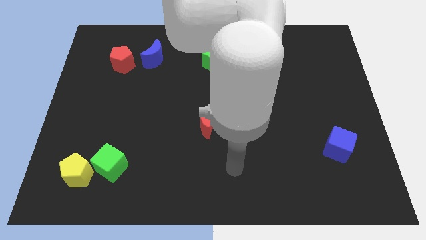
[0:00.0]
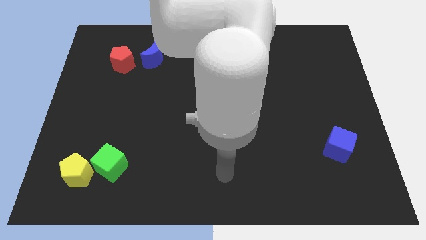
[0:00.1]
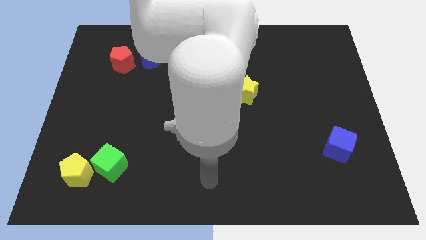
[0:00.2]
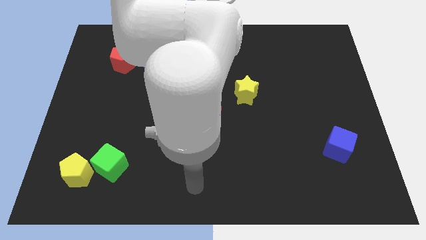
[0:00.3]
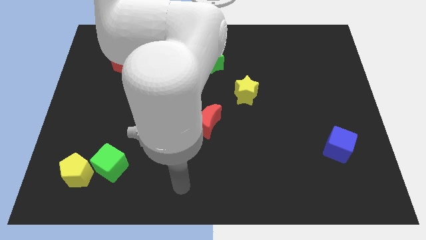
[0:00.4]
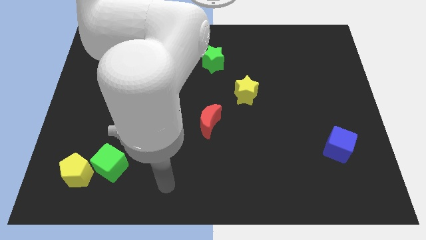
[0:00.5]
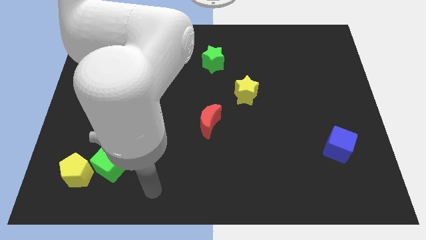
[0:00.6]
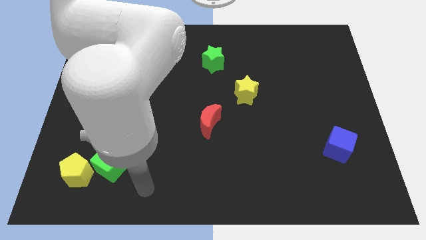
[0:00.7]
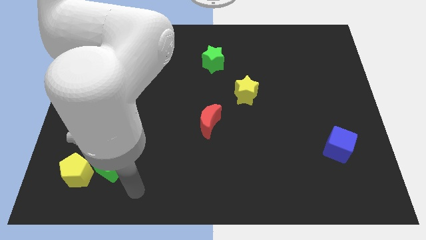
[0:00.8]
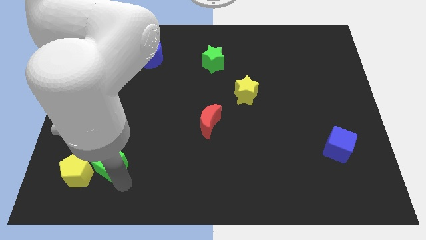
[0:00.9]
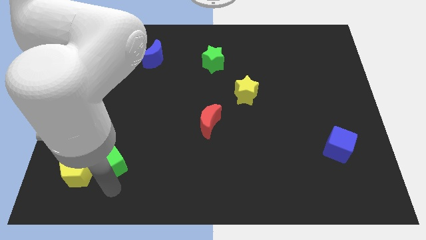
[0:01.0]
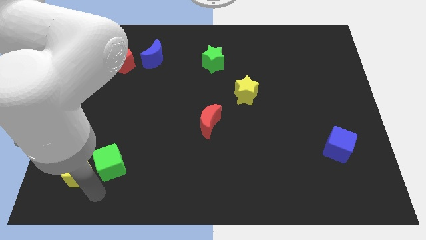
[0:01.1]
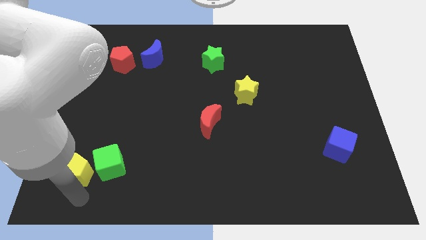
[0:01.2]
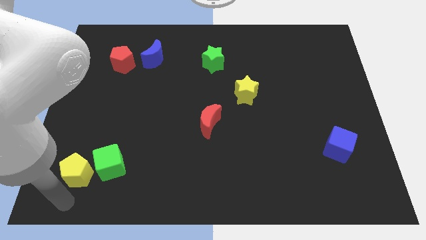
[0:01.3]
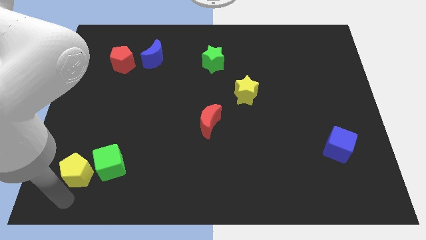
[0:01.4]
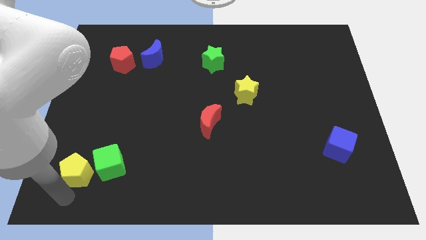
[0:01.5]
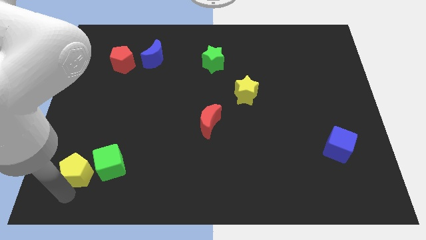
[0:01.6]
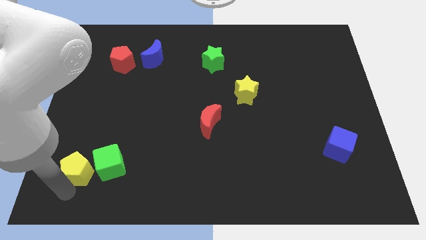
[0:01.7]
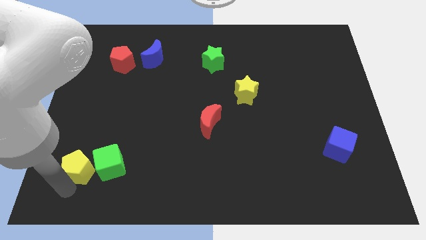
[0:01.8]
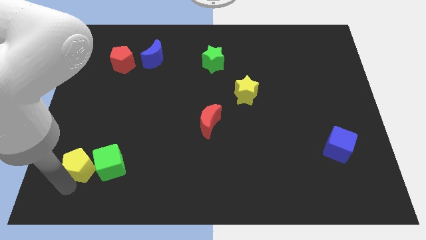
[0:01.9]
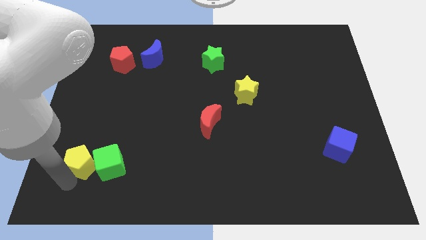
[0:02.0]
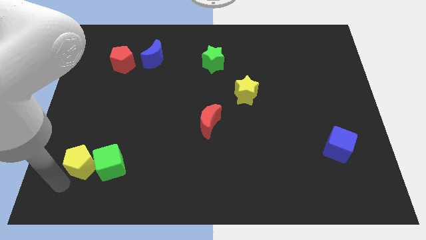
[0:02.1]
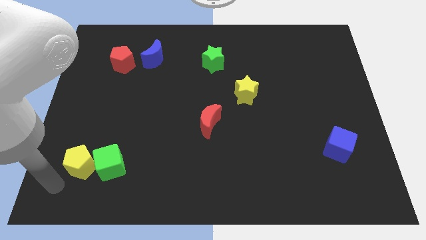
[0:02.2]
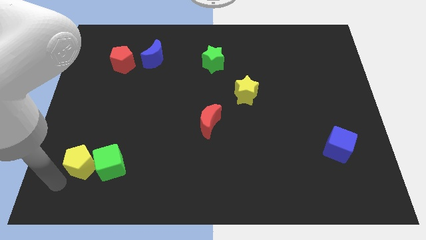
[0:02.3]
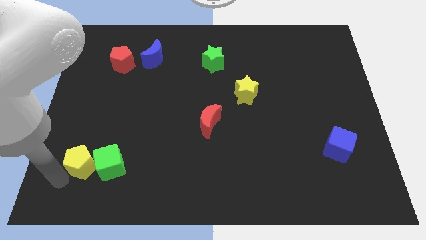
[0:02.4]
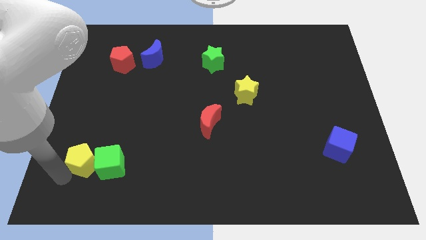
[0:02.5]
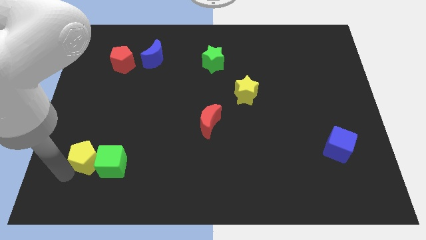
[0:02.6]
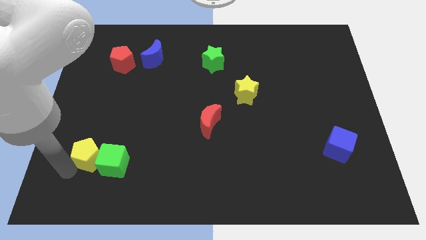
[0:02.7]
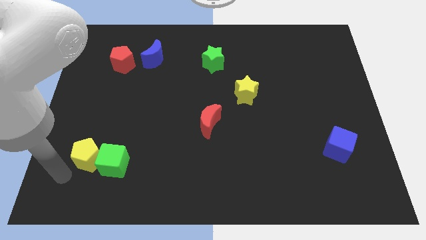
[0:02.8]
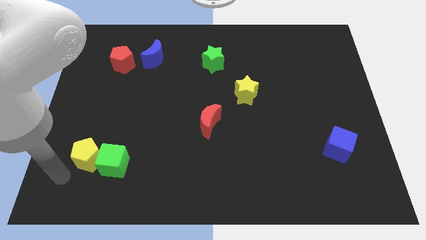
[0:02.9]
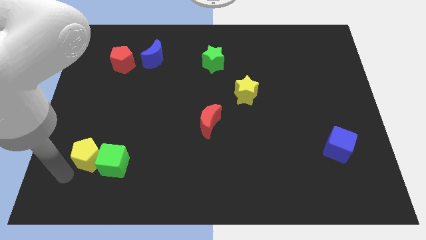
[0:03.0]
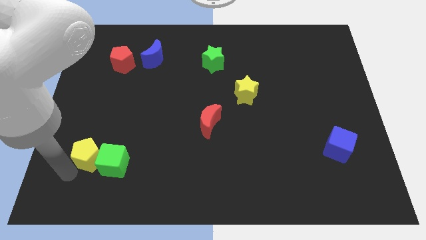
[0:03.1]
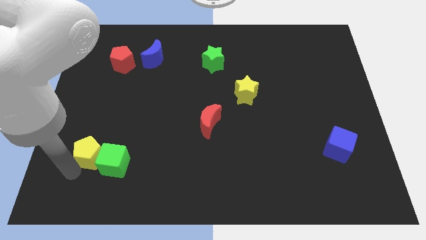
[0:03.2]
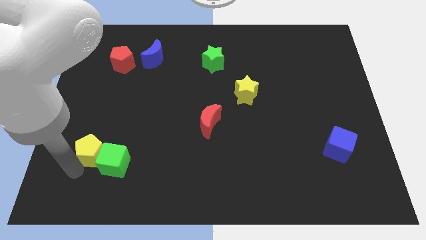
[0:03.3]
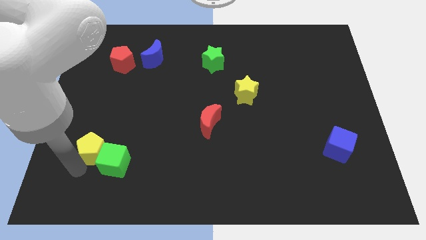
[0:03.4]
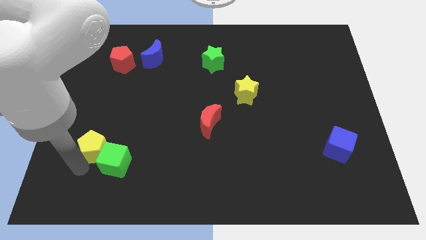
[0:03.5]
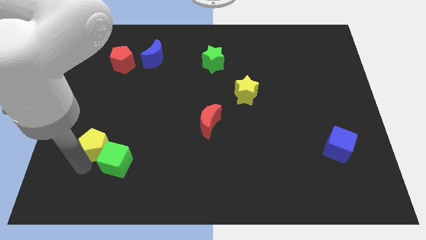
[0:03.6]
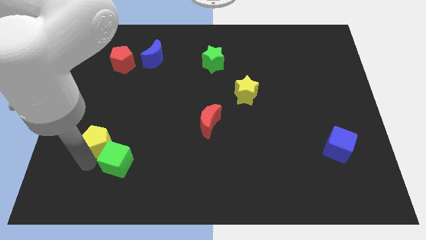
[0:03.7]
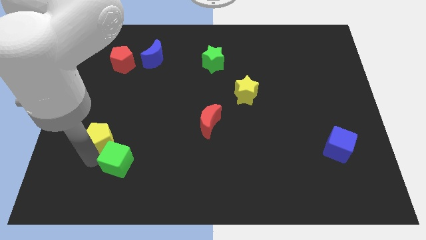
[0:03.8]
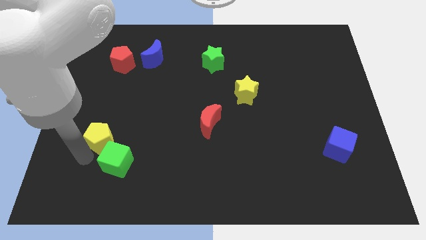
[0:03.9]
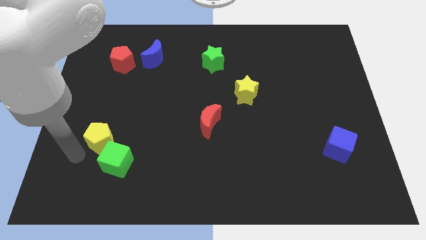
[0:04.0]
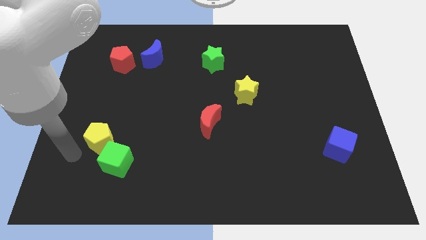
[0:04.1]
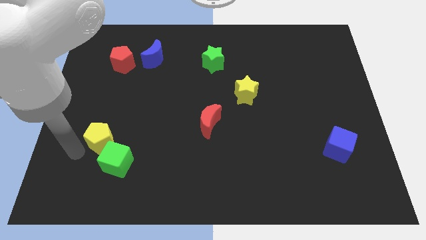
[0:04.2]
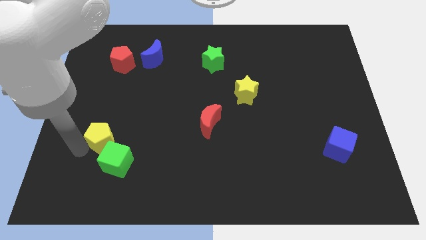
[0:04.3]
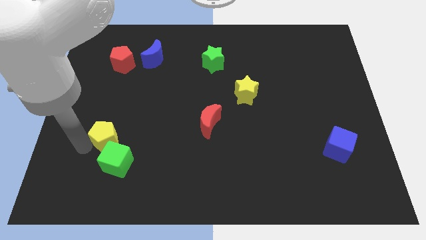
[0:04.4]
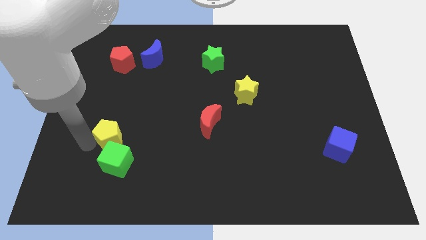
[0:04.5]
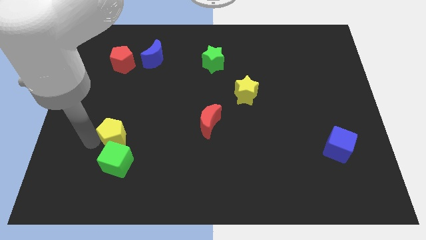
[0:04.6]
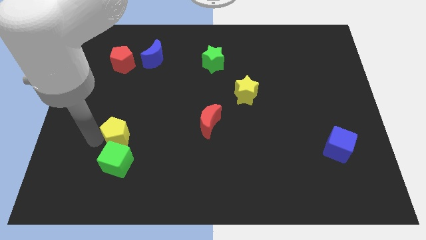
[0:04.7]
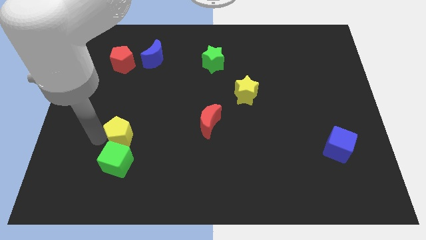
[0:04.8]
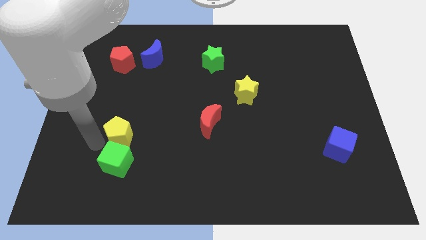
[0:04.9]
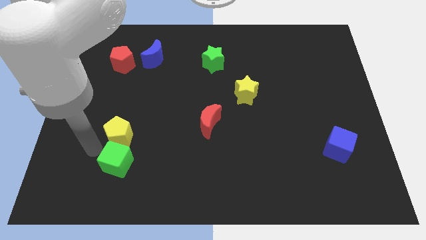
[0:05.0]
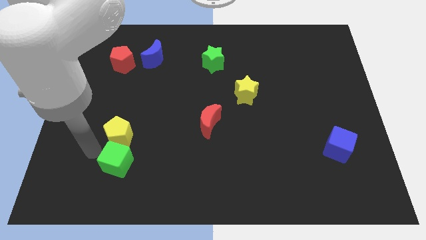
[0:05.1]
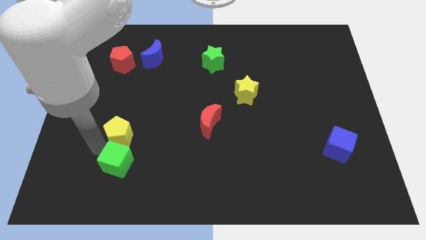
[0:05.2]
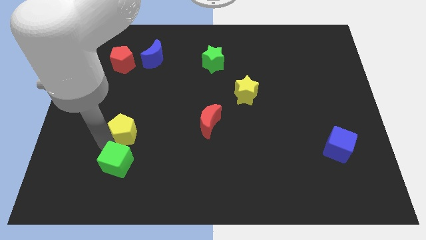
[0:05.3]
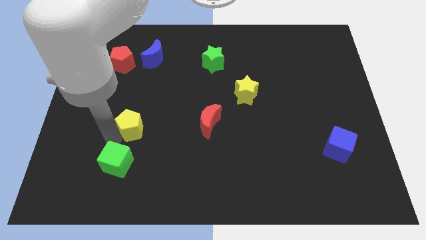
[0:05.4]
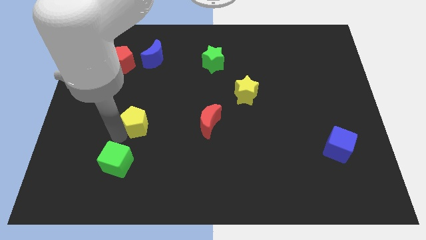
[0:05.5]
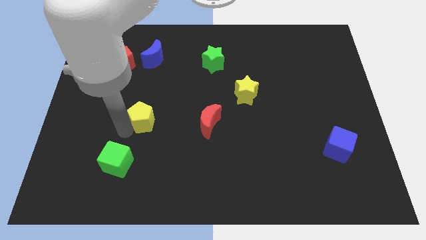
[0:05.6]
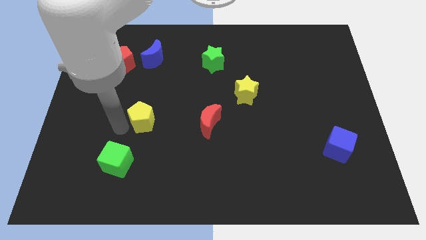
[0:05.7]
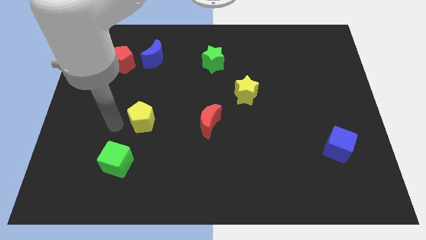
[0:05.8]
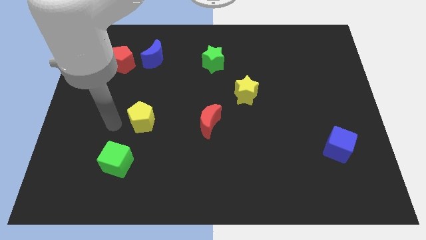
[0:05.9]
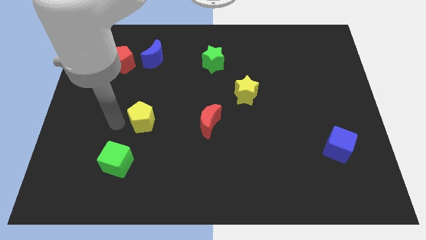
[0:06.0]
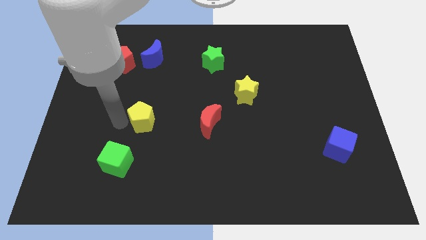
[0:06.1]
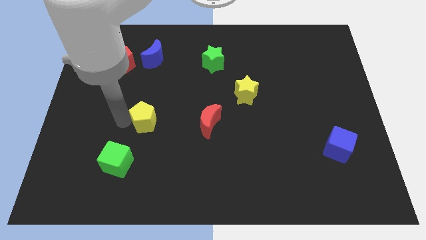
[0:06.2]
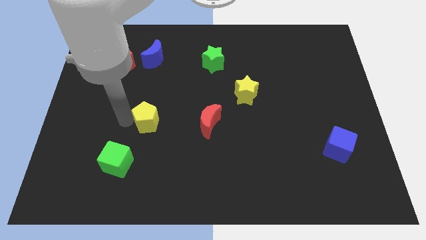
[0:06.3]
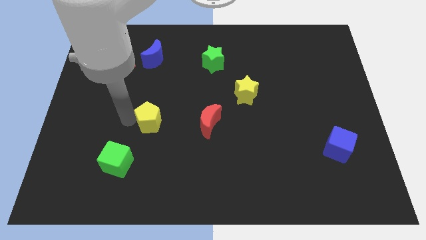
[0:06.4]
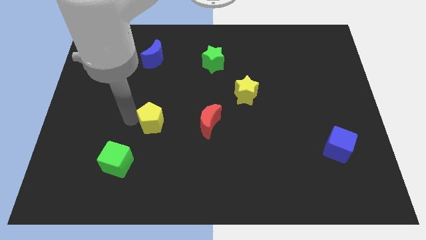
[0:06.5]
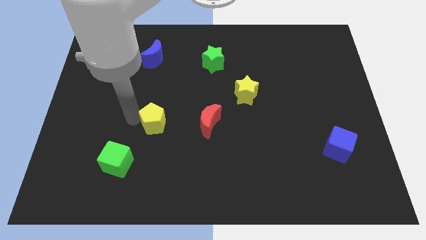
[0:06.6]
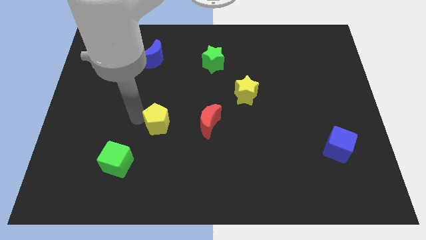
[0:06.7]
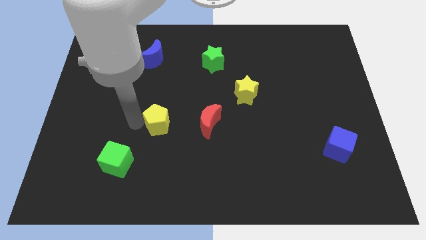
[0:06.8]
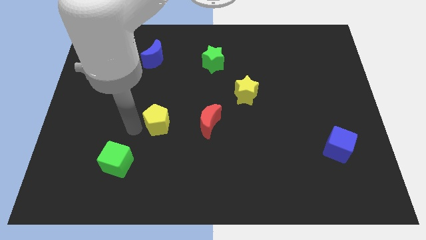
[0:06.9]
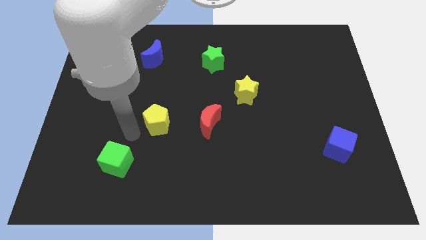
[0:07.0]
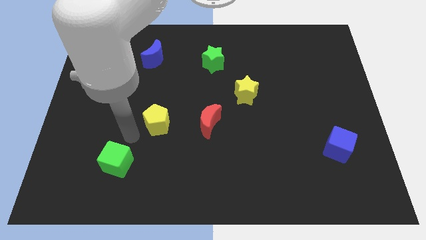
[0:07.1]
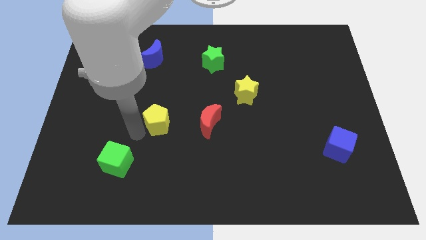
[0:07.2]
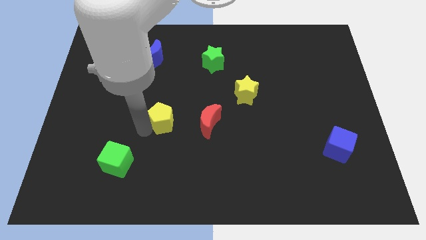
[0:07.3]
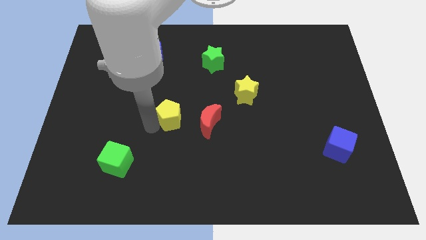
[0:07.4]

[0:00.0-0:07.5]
move the yellow pentagon to the middle of the board

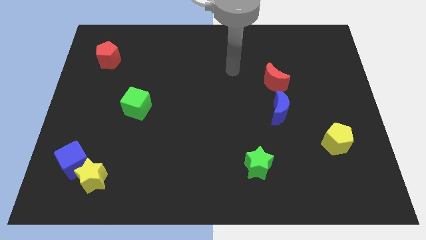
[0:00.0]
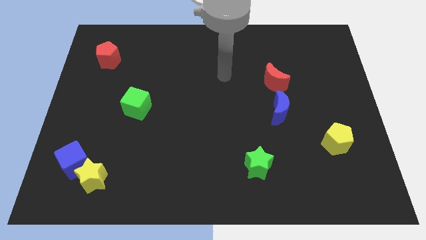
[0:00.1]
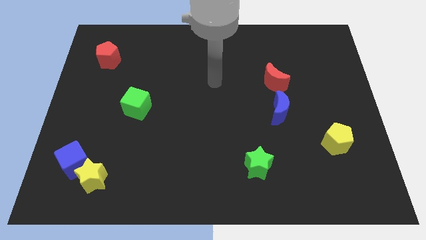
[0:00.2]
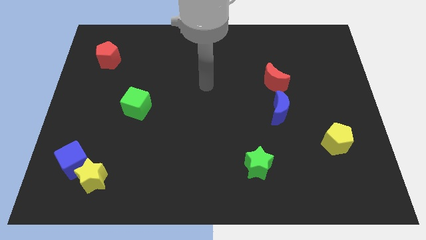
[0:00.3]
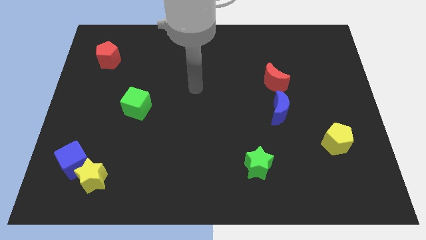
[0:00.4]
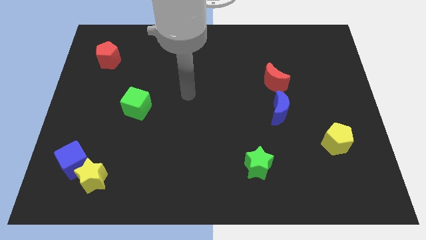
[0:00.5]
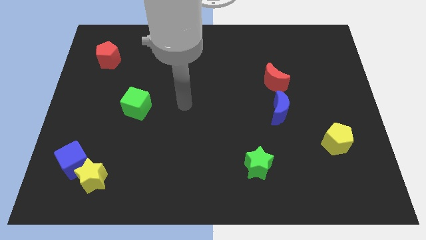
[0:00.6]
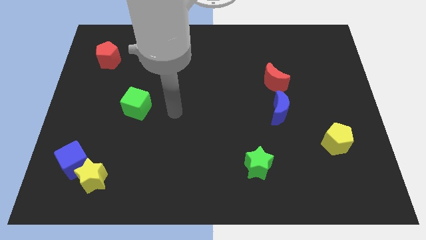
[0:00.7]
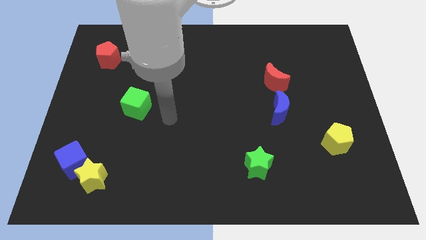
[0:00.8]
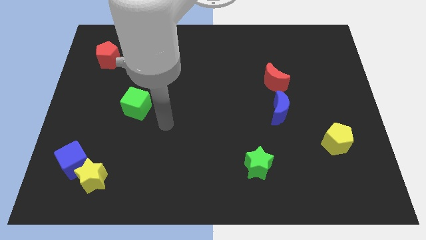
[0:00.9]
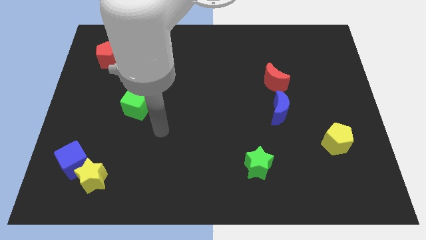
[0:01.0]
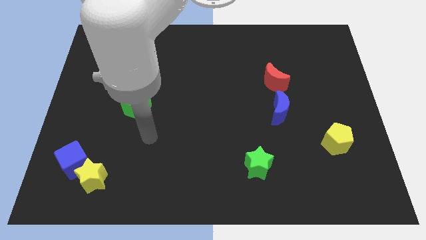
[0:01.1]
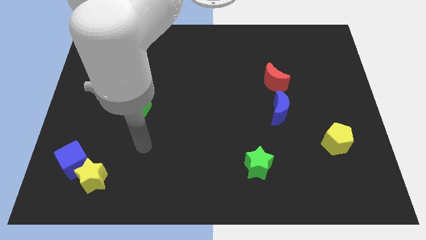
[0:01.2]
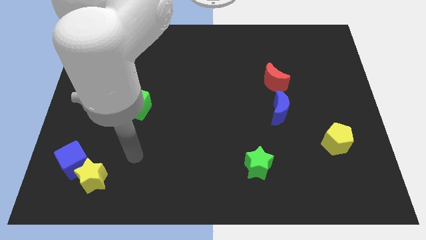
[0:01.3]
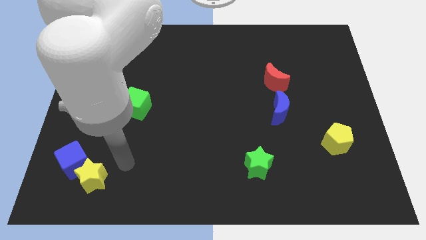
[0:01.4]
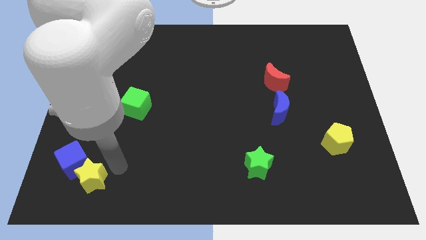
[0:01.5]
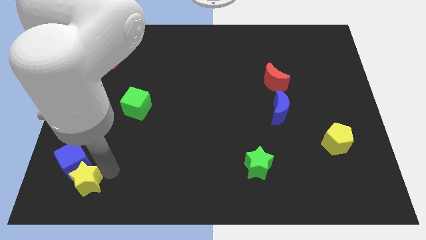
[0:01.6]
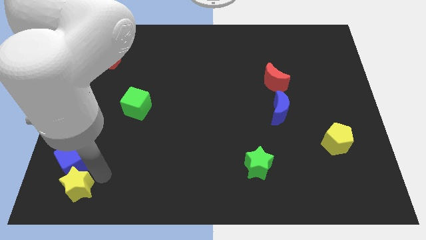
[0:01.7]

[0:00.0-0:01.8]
push the yellow star to the bottom left corner
